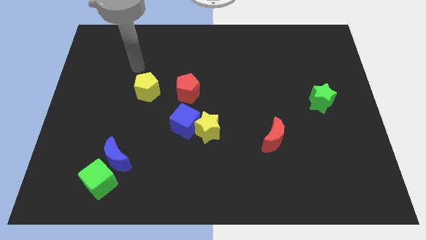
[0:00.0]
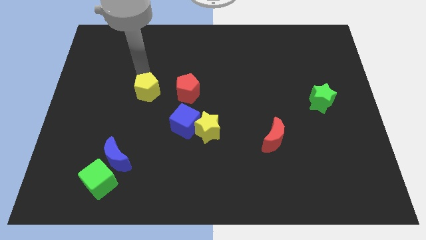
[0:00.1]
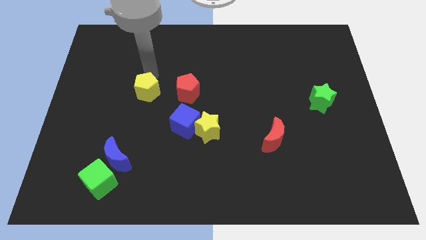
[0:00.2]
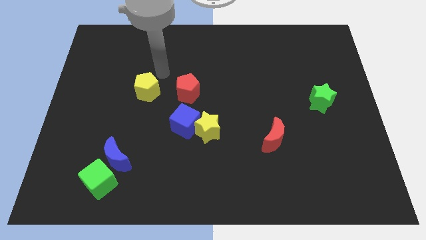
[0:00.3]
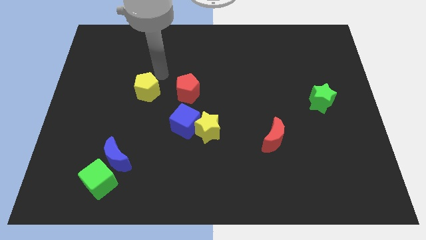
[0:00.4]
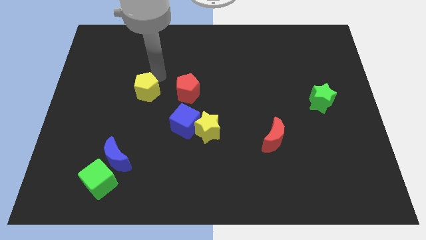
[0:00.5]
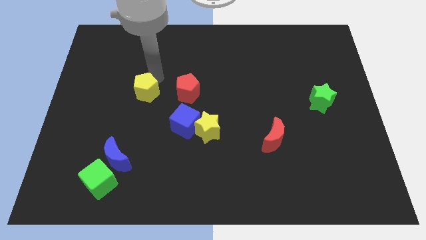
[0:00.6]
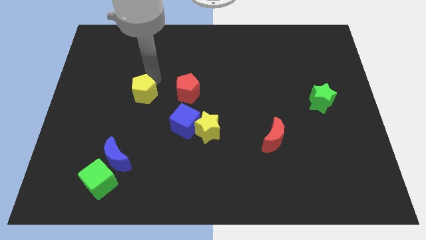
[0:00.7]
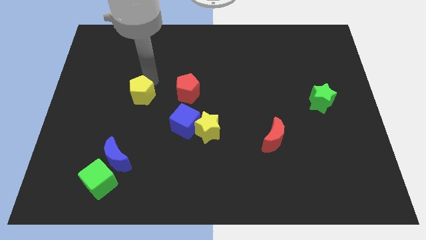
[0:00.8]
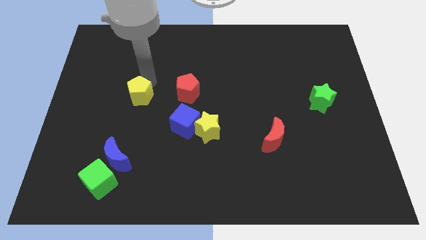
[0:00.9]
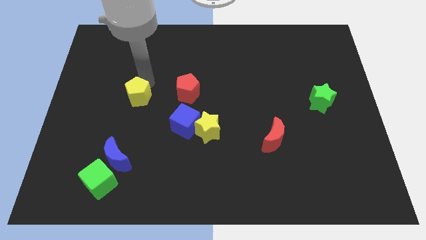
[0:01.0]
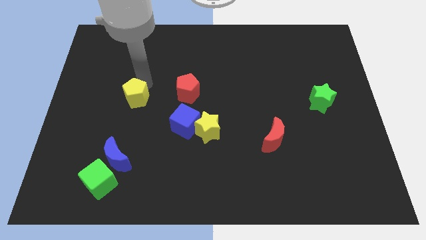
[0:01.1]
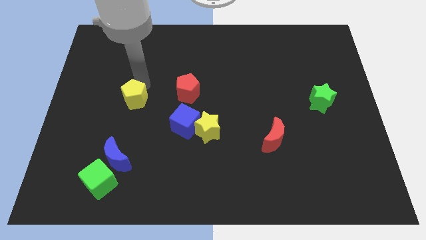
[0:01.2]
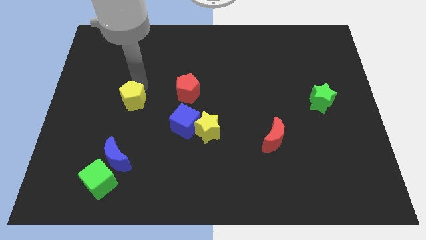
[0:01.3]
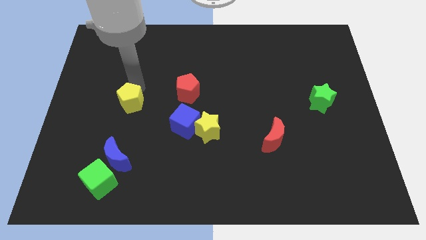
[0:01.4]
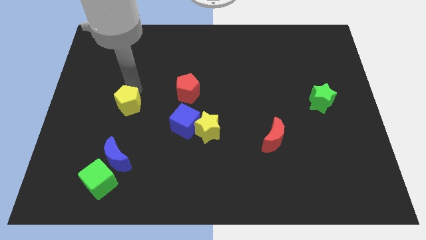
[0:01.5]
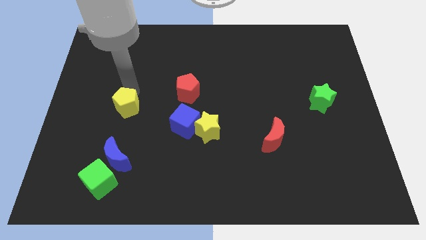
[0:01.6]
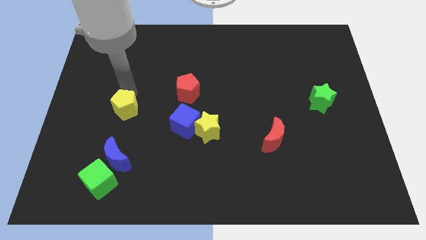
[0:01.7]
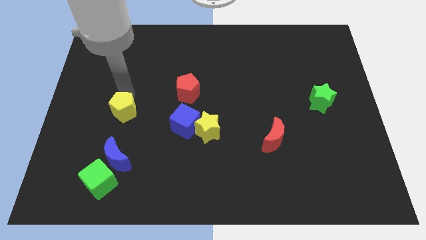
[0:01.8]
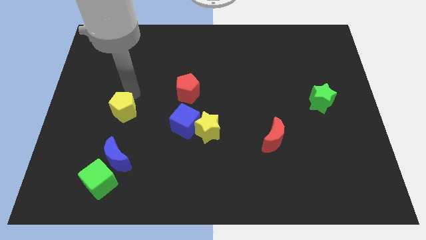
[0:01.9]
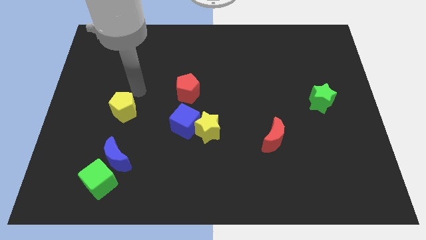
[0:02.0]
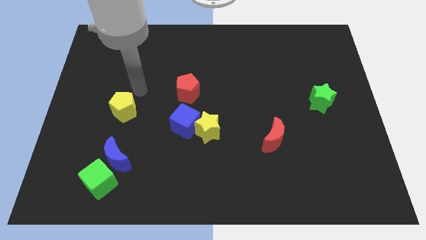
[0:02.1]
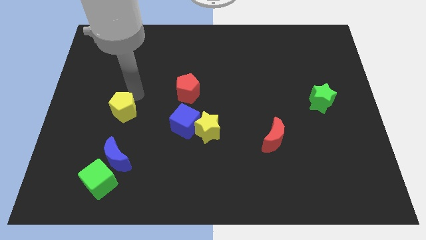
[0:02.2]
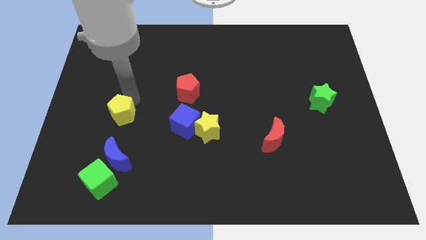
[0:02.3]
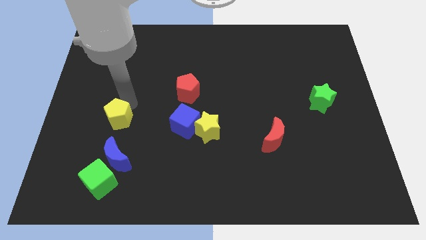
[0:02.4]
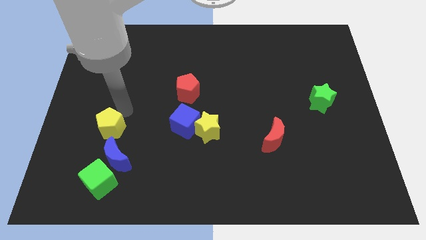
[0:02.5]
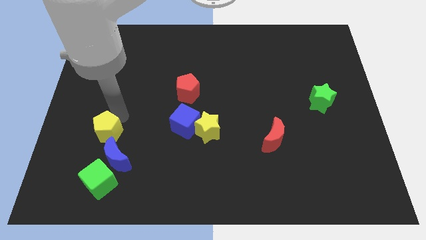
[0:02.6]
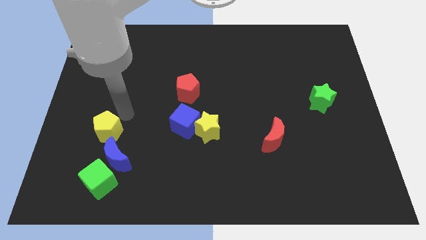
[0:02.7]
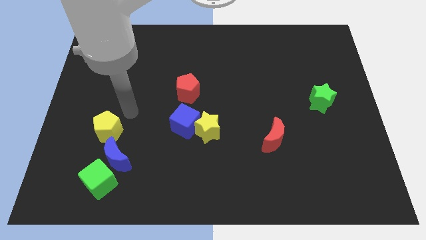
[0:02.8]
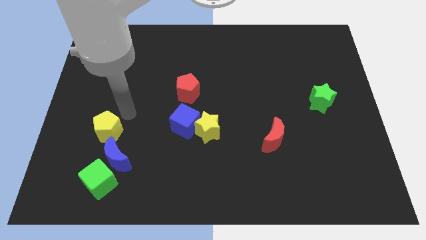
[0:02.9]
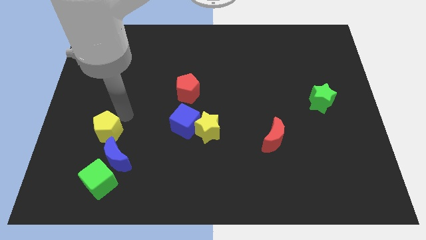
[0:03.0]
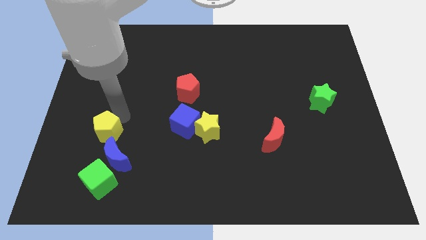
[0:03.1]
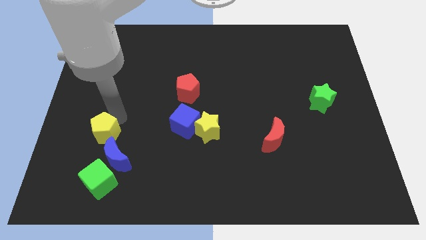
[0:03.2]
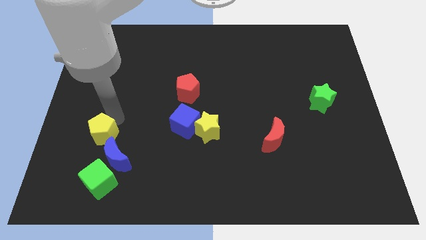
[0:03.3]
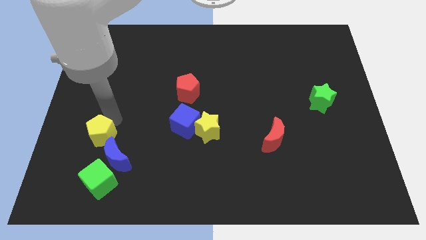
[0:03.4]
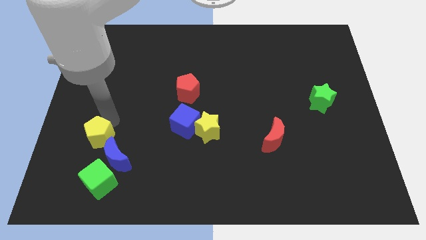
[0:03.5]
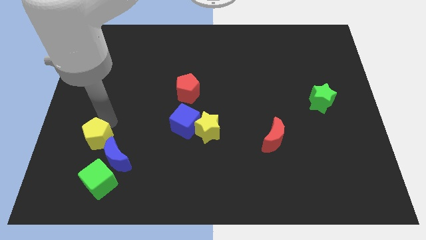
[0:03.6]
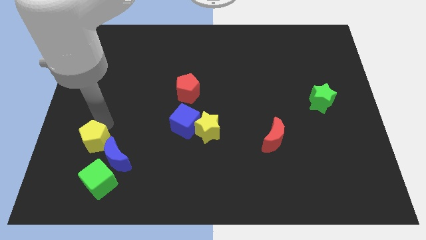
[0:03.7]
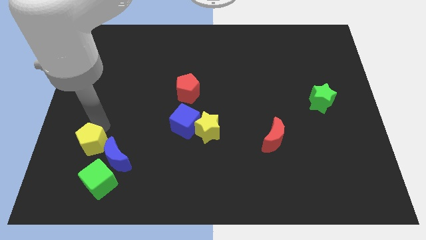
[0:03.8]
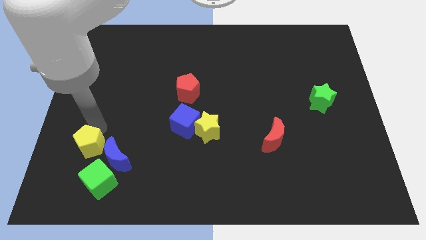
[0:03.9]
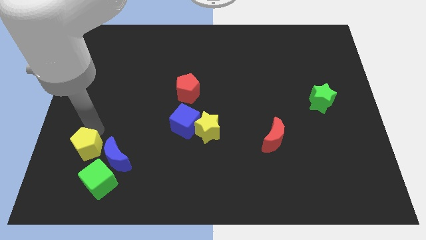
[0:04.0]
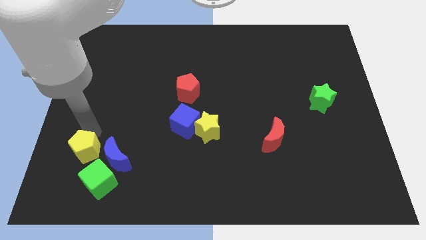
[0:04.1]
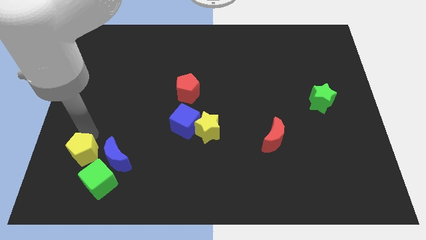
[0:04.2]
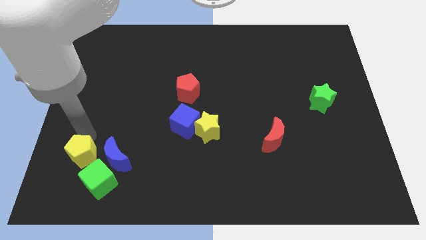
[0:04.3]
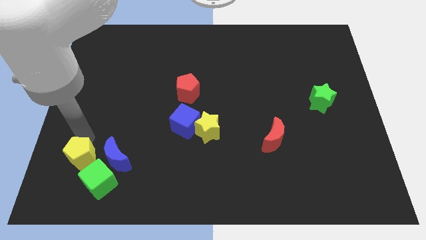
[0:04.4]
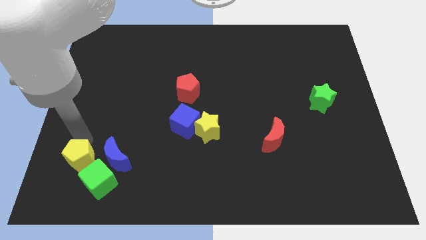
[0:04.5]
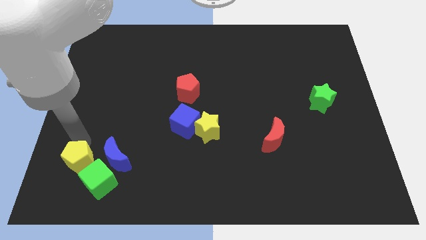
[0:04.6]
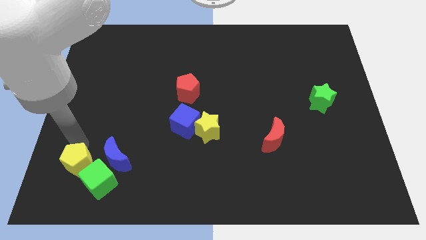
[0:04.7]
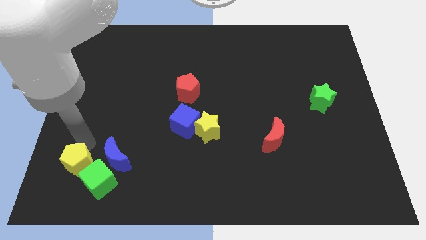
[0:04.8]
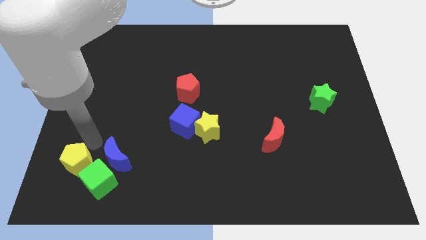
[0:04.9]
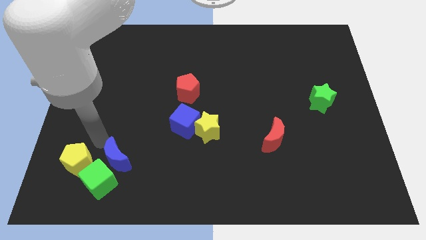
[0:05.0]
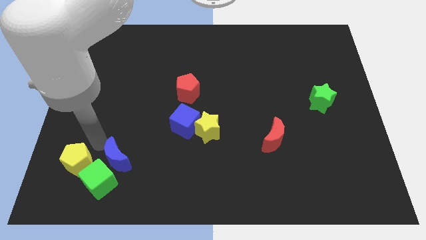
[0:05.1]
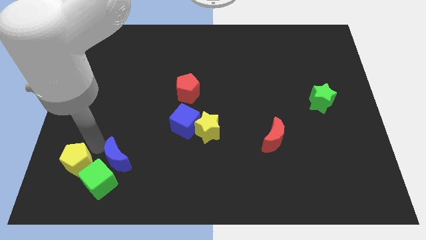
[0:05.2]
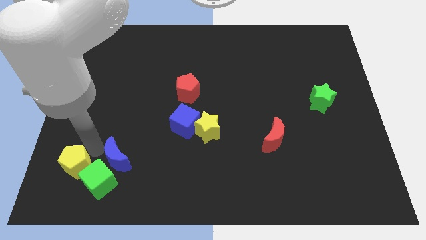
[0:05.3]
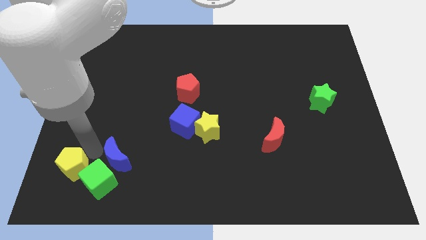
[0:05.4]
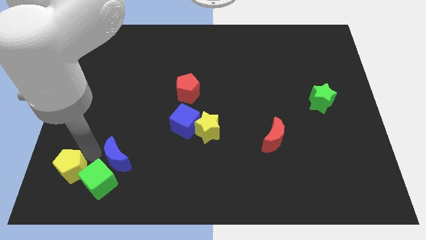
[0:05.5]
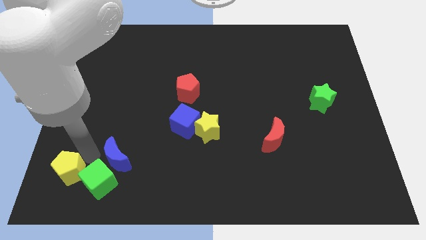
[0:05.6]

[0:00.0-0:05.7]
put the yellow pentagon to the bottom left
